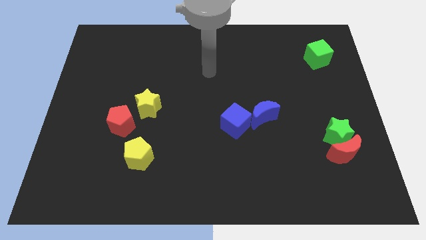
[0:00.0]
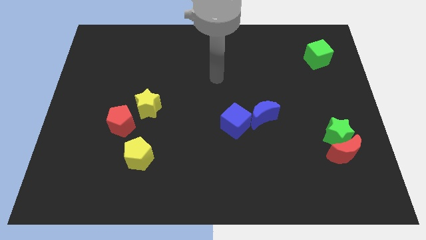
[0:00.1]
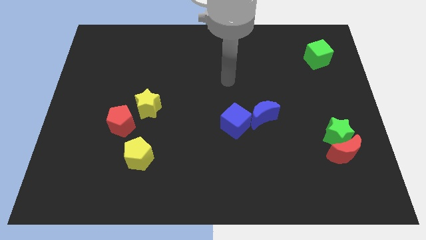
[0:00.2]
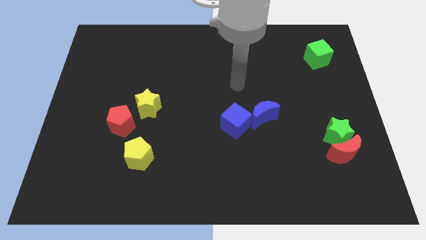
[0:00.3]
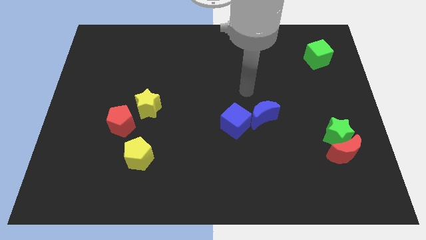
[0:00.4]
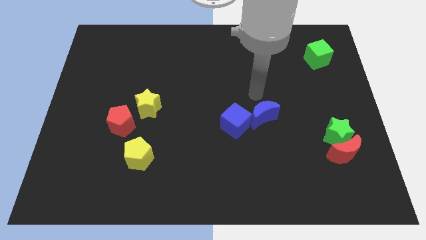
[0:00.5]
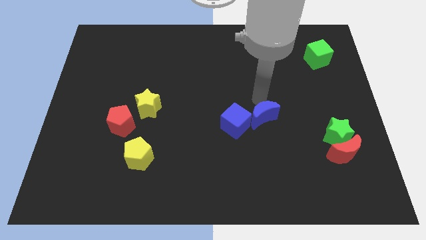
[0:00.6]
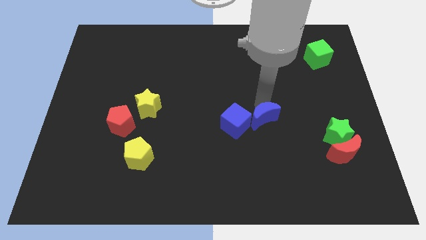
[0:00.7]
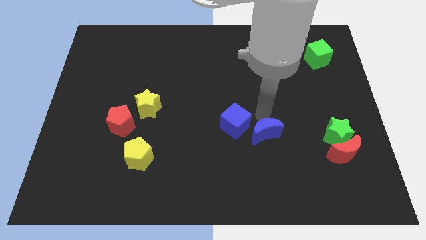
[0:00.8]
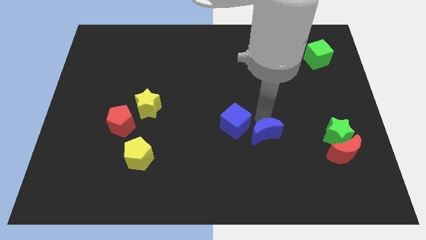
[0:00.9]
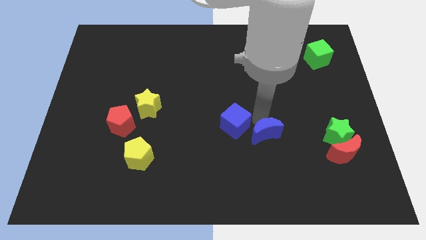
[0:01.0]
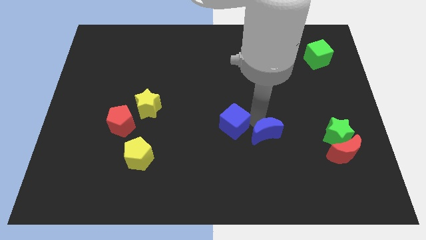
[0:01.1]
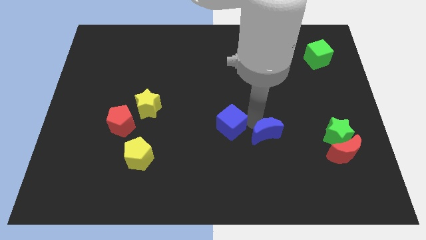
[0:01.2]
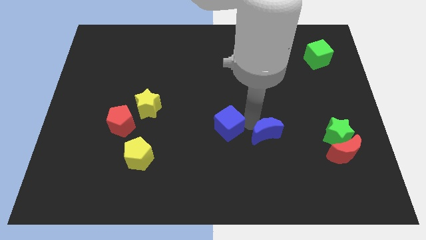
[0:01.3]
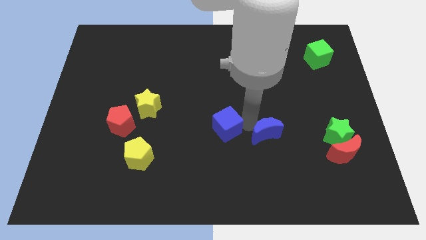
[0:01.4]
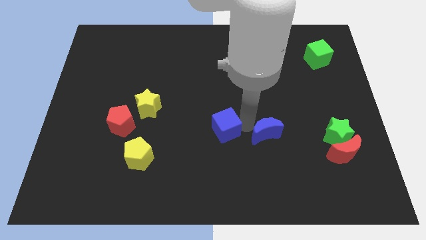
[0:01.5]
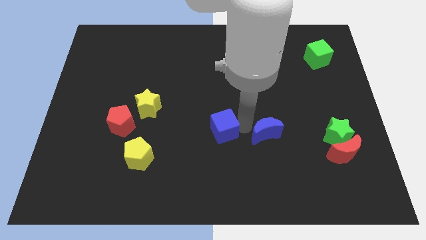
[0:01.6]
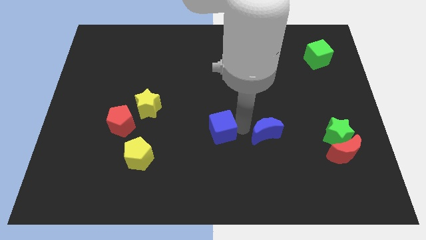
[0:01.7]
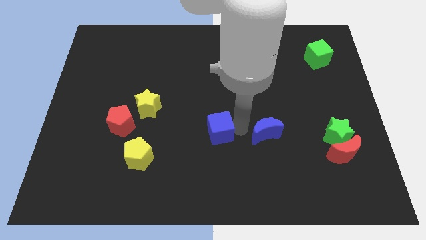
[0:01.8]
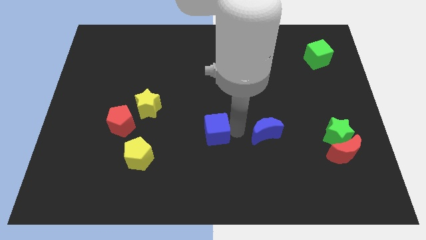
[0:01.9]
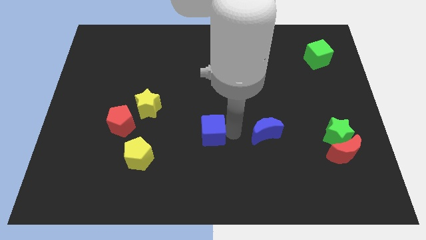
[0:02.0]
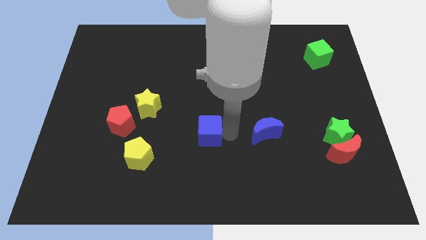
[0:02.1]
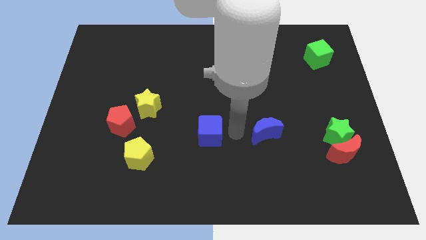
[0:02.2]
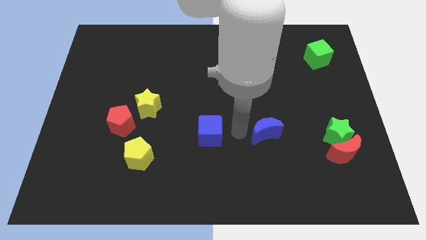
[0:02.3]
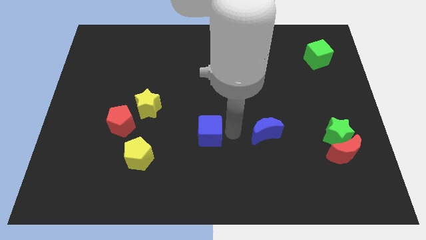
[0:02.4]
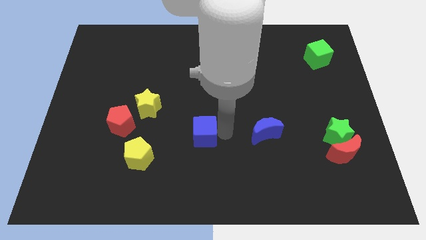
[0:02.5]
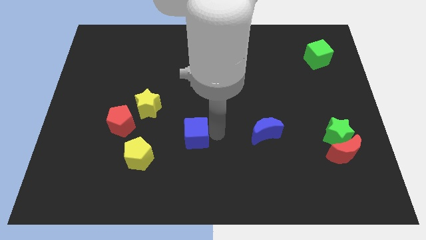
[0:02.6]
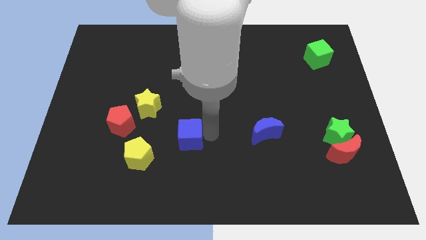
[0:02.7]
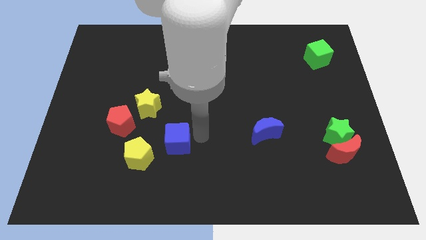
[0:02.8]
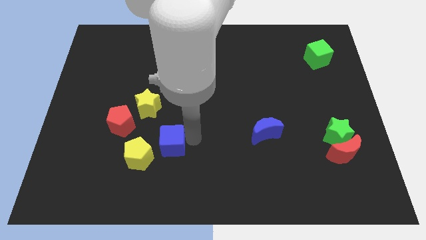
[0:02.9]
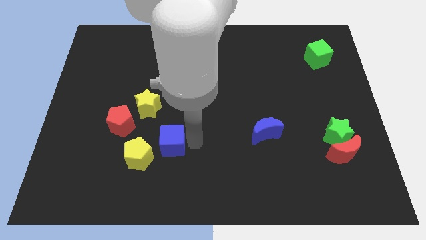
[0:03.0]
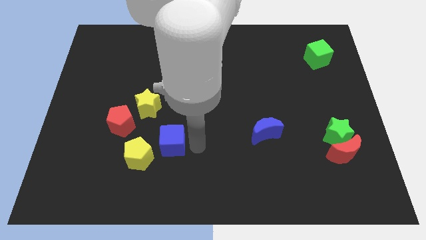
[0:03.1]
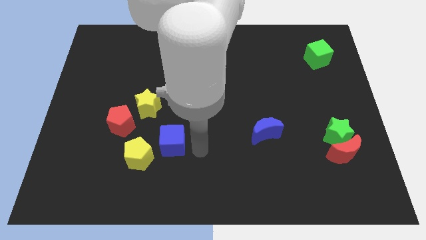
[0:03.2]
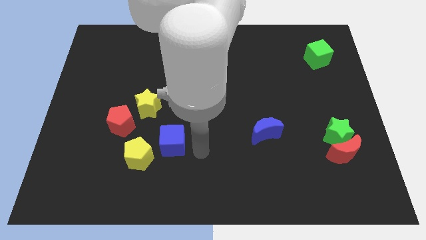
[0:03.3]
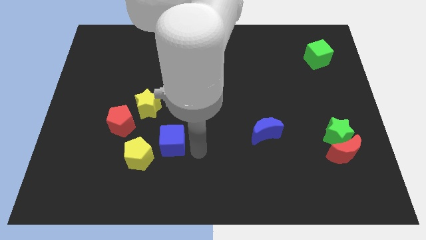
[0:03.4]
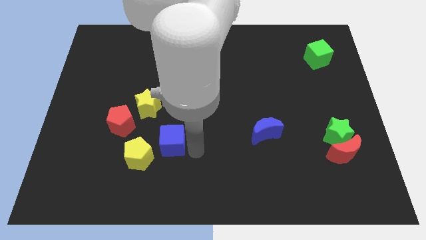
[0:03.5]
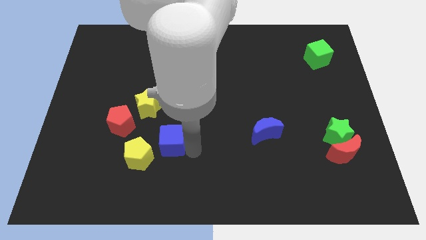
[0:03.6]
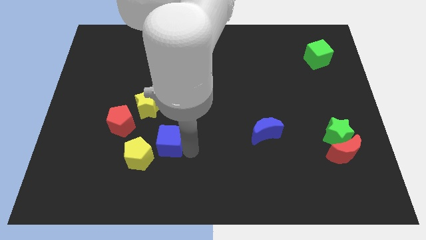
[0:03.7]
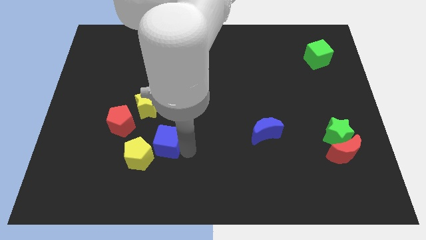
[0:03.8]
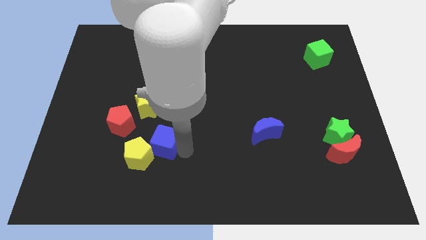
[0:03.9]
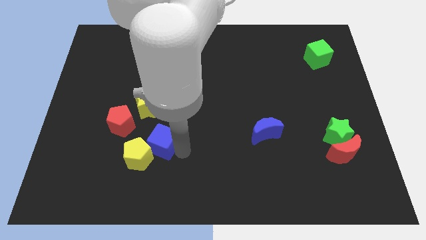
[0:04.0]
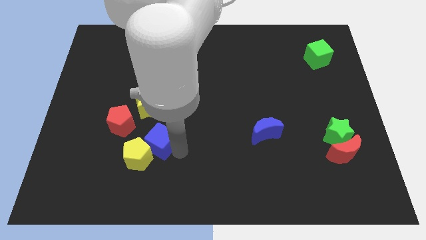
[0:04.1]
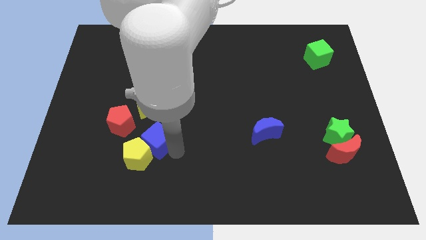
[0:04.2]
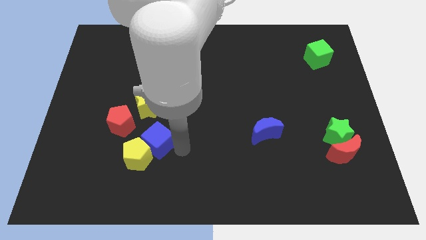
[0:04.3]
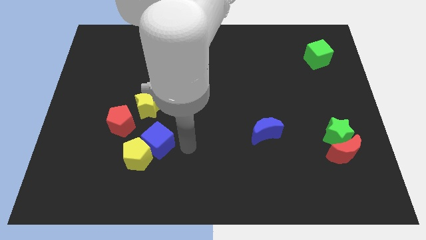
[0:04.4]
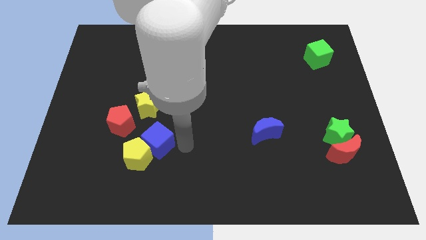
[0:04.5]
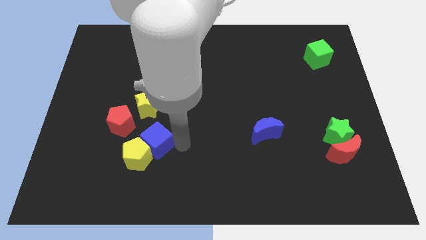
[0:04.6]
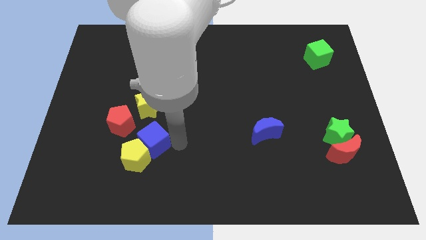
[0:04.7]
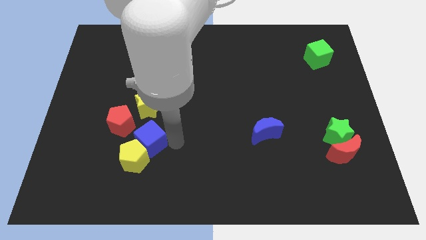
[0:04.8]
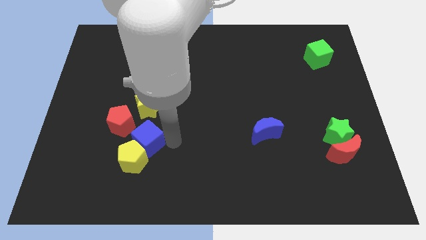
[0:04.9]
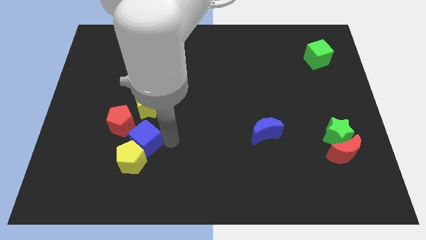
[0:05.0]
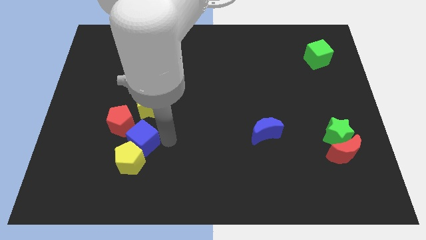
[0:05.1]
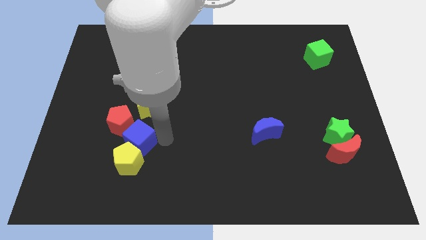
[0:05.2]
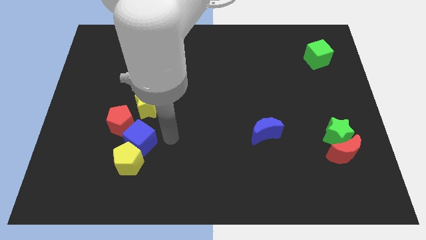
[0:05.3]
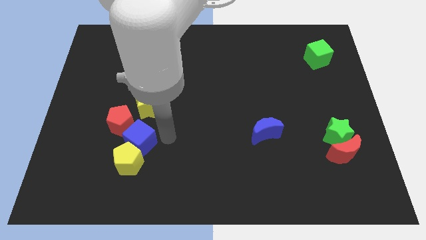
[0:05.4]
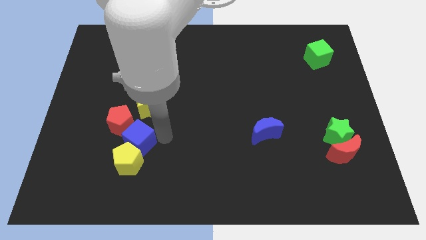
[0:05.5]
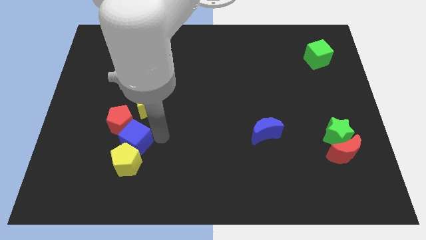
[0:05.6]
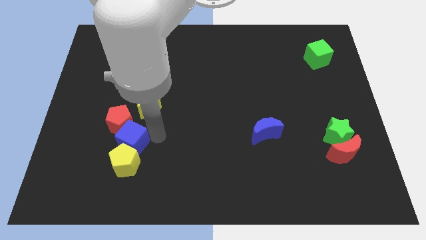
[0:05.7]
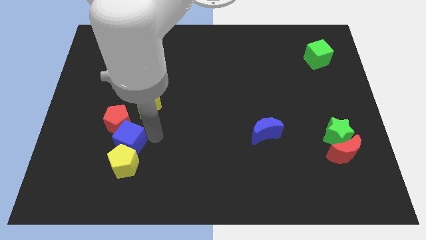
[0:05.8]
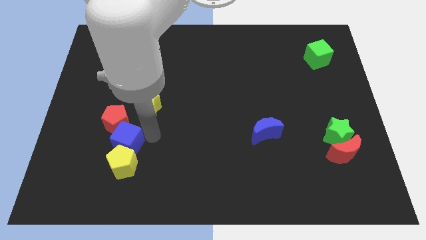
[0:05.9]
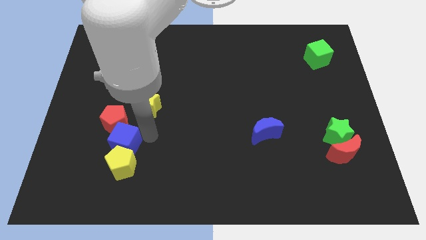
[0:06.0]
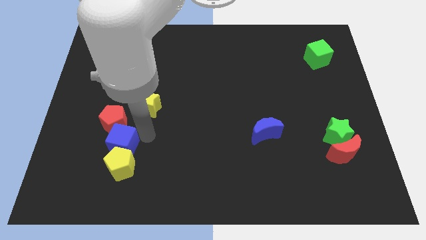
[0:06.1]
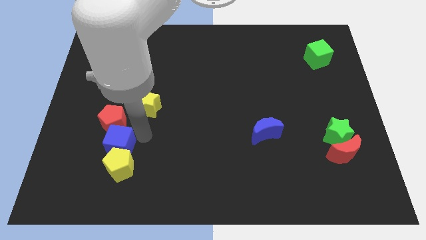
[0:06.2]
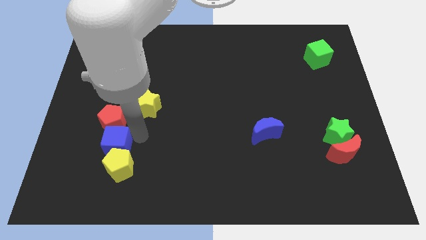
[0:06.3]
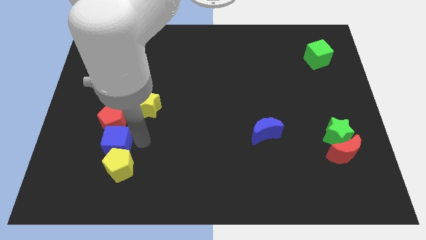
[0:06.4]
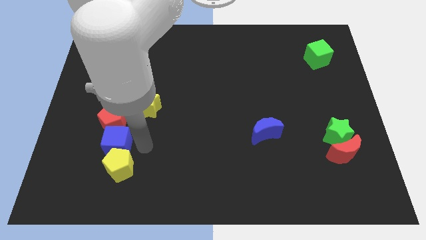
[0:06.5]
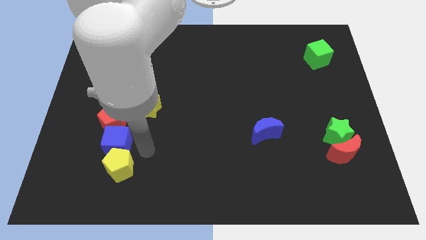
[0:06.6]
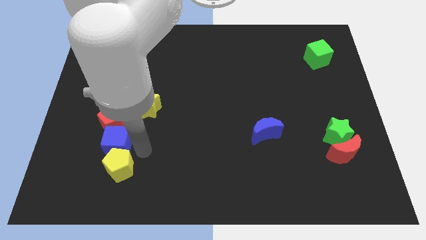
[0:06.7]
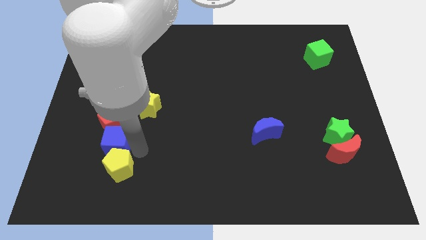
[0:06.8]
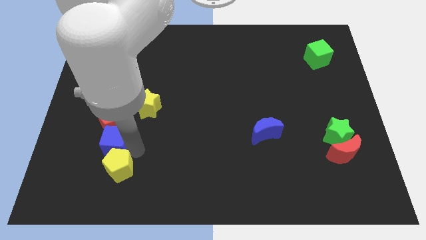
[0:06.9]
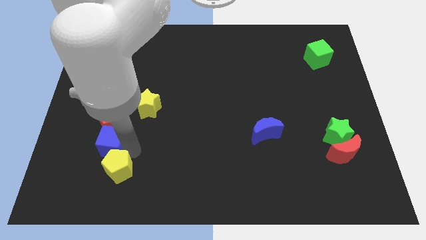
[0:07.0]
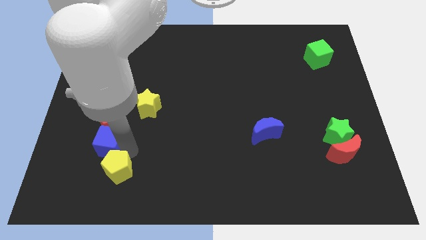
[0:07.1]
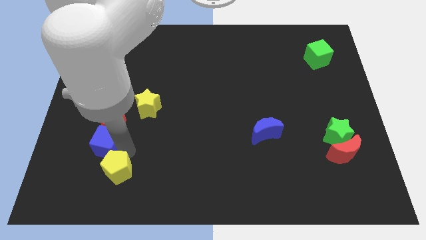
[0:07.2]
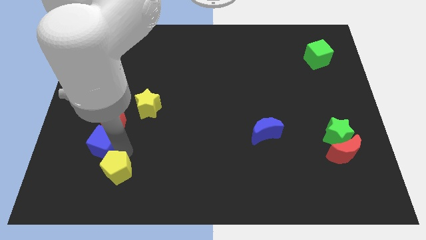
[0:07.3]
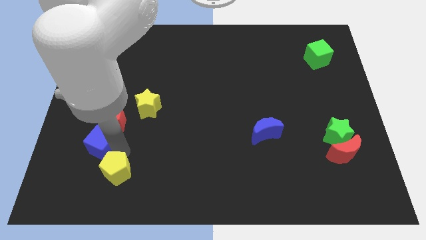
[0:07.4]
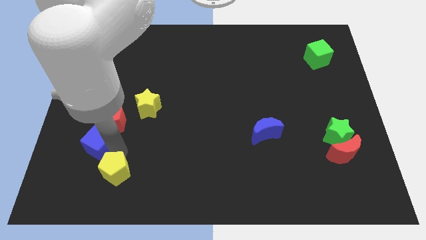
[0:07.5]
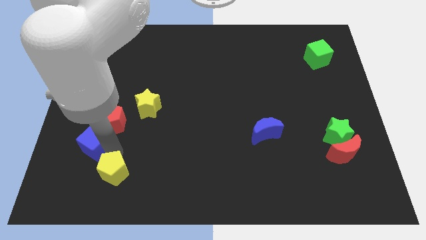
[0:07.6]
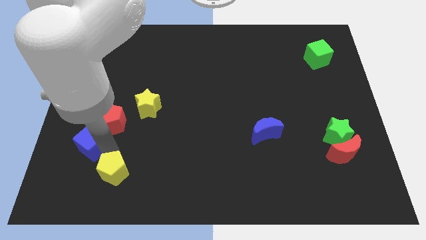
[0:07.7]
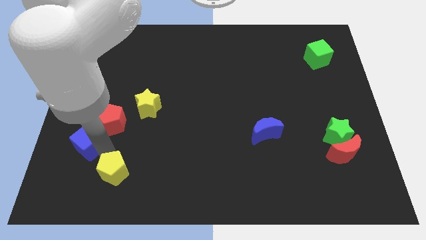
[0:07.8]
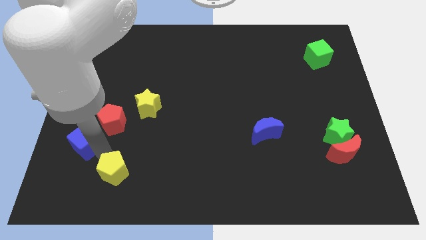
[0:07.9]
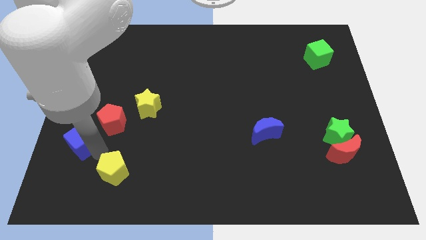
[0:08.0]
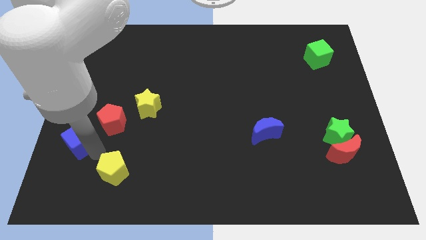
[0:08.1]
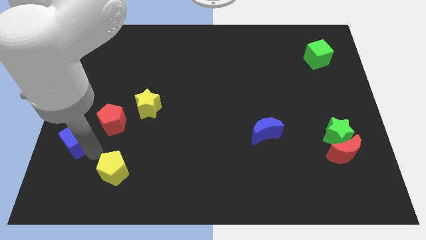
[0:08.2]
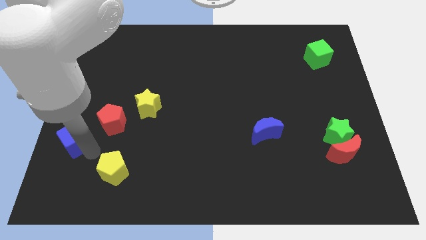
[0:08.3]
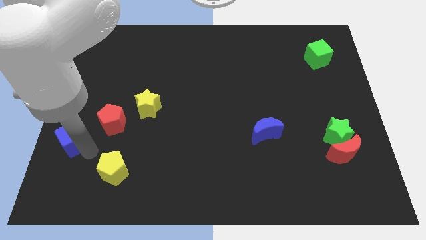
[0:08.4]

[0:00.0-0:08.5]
put the blue cube to the left side of the board
